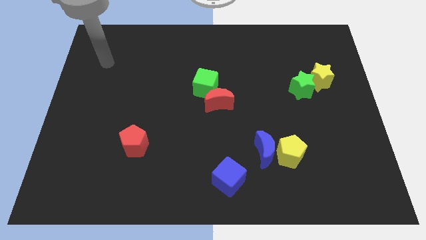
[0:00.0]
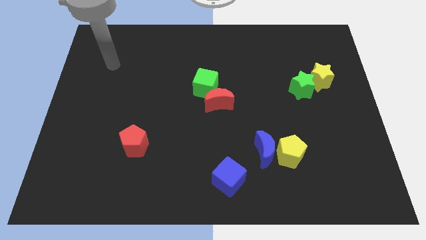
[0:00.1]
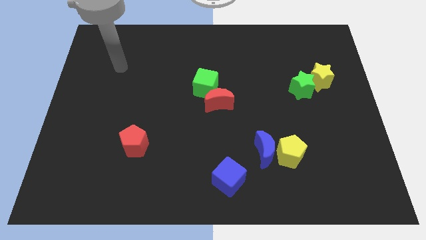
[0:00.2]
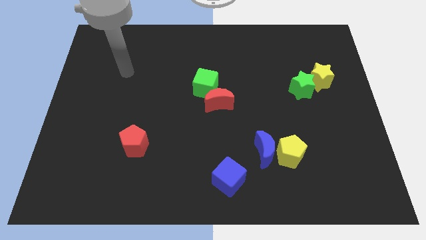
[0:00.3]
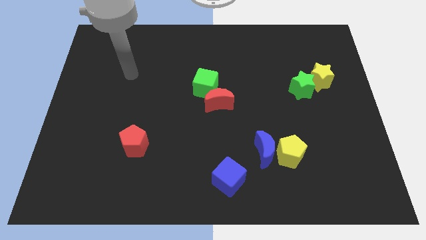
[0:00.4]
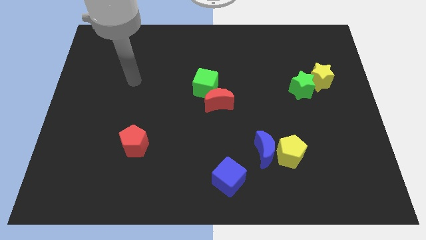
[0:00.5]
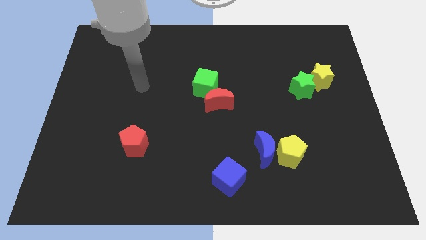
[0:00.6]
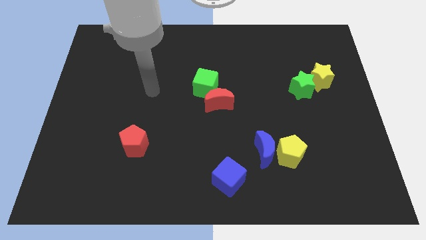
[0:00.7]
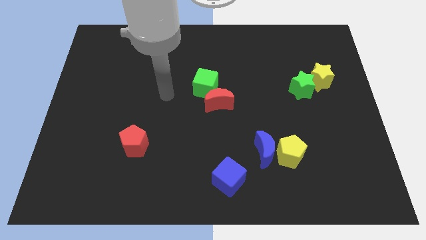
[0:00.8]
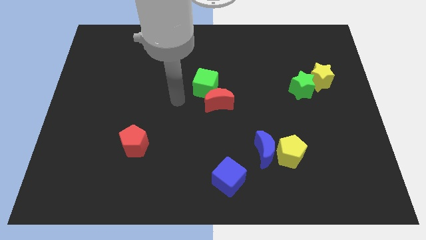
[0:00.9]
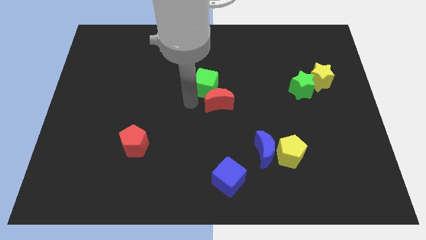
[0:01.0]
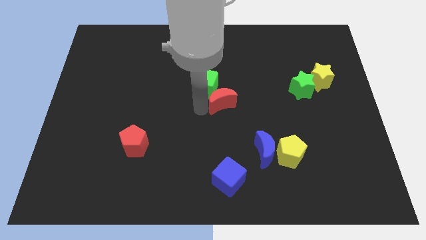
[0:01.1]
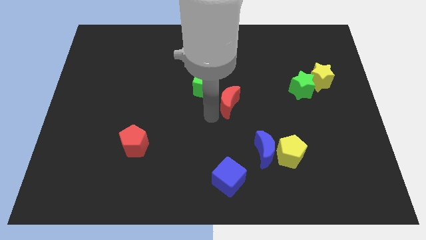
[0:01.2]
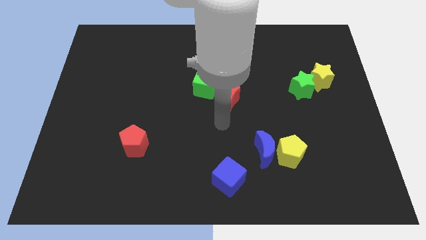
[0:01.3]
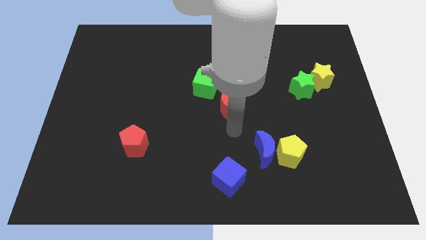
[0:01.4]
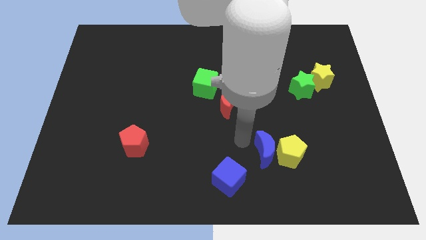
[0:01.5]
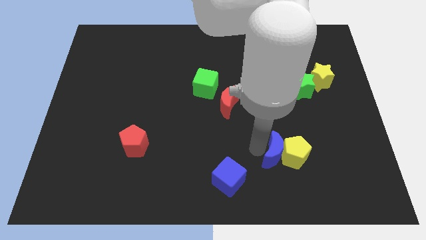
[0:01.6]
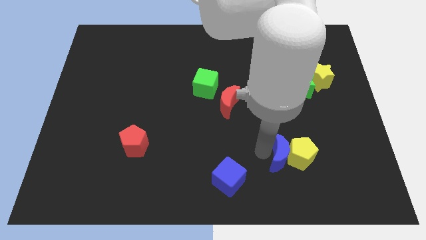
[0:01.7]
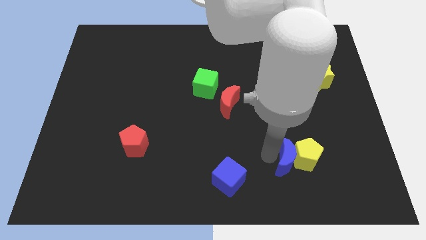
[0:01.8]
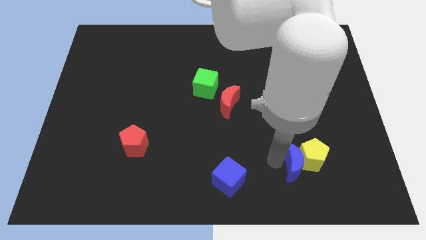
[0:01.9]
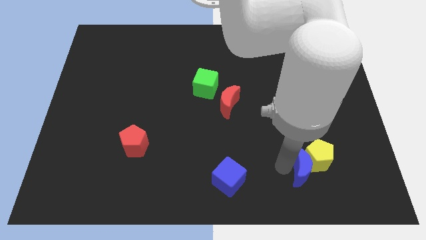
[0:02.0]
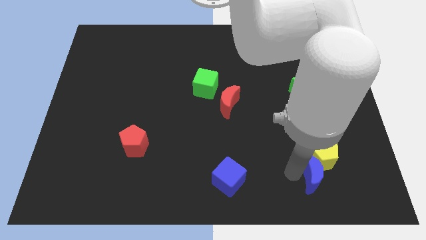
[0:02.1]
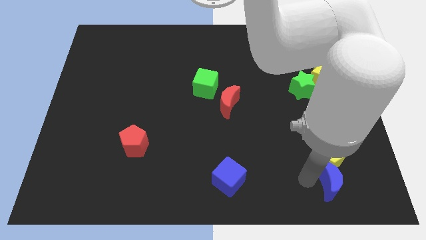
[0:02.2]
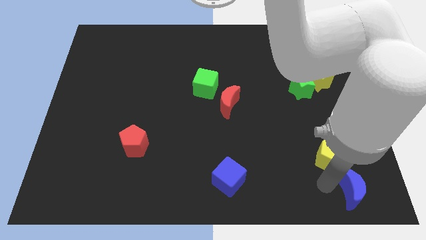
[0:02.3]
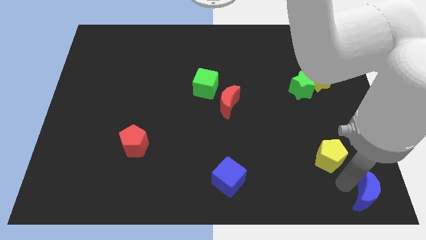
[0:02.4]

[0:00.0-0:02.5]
separate the yellow pentagon from the blue moon

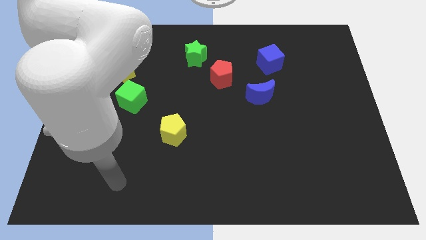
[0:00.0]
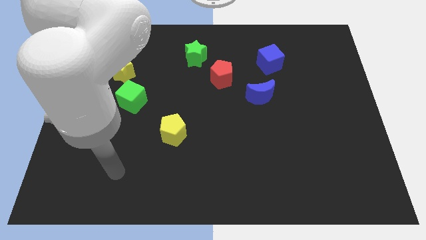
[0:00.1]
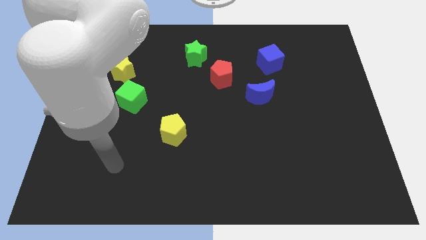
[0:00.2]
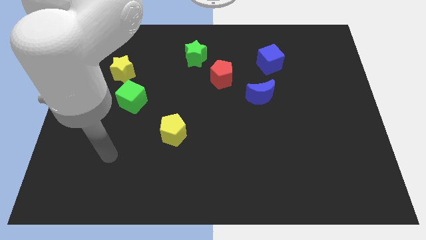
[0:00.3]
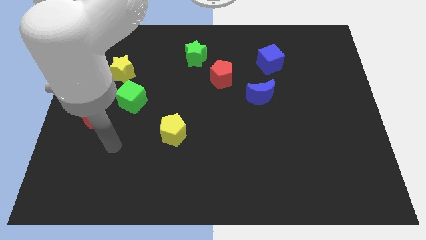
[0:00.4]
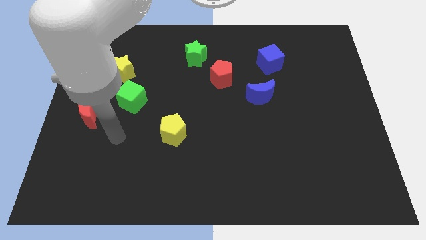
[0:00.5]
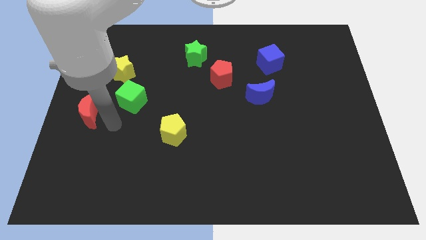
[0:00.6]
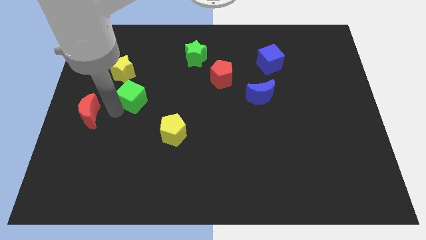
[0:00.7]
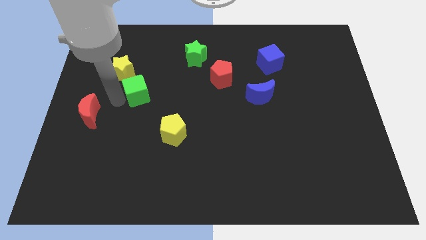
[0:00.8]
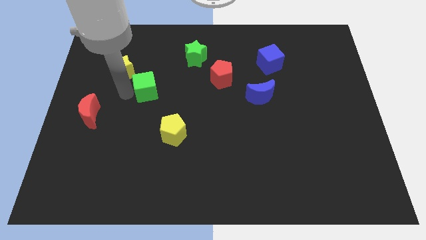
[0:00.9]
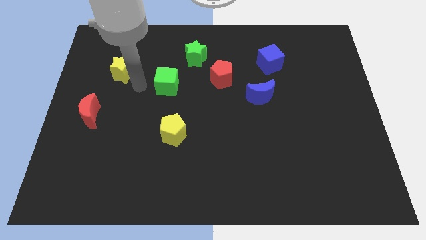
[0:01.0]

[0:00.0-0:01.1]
pull the yellow star apart from the green cube

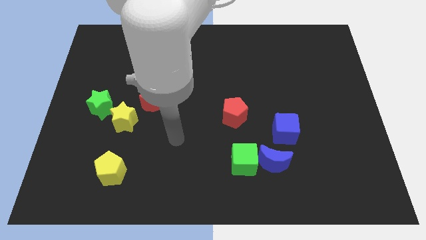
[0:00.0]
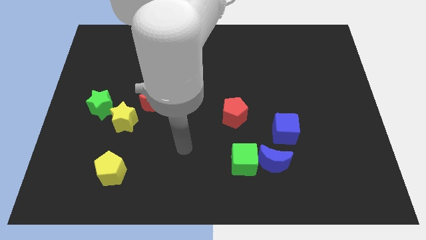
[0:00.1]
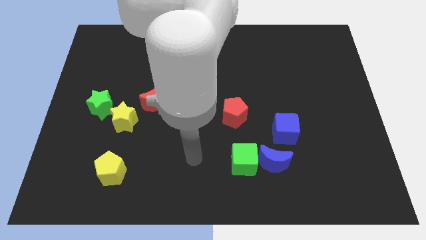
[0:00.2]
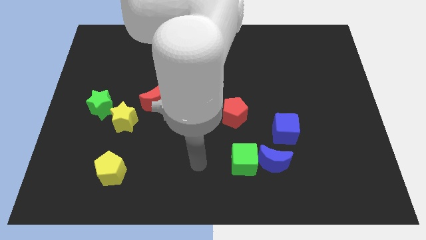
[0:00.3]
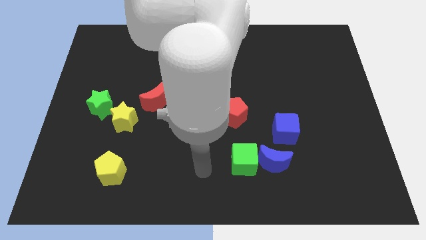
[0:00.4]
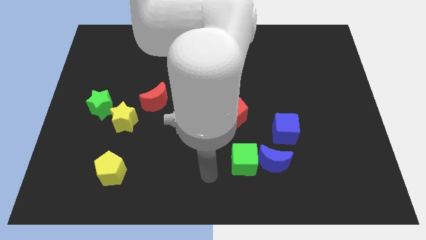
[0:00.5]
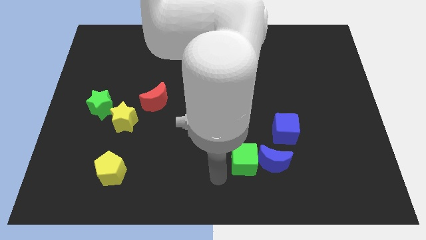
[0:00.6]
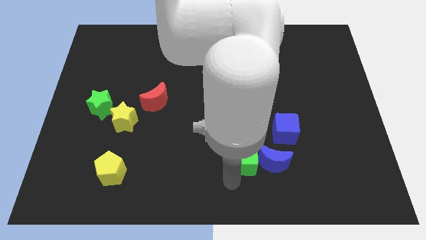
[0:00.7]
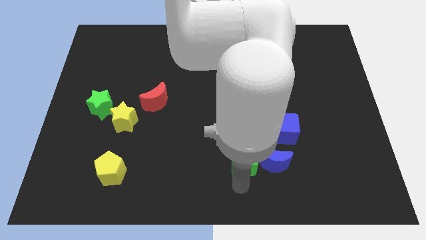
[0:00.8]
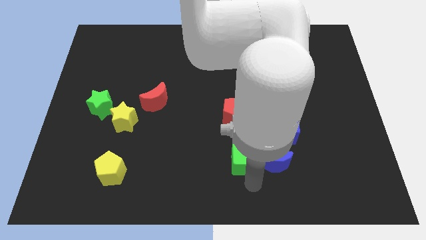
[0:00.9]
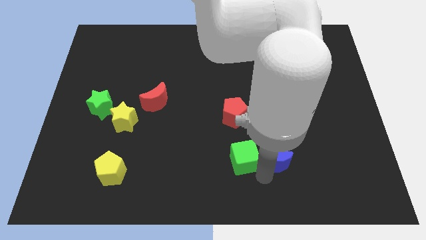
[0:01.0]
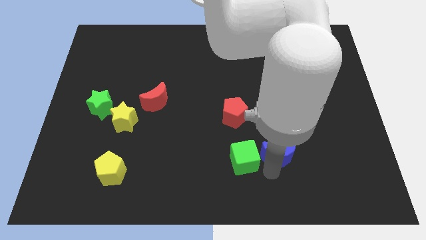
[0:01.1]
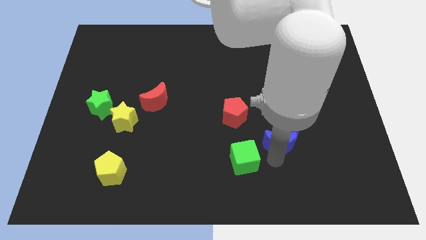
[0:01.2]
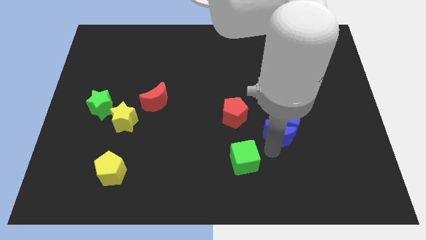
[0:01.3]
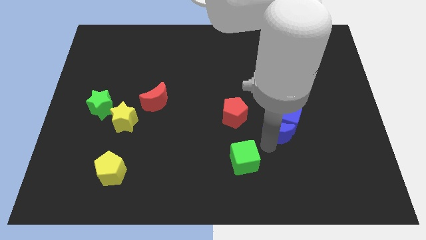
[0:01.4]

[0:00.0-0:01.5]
move the green cube away from the blue moon

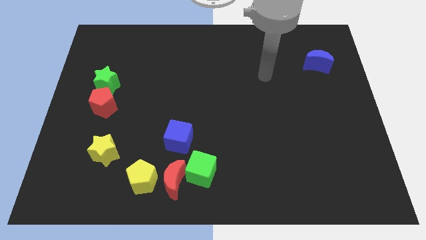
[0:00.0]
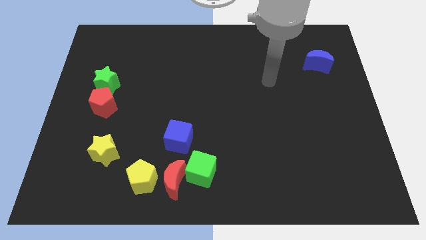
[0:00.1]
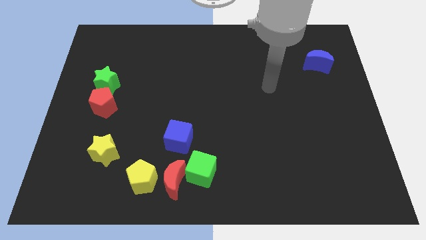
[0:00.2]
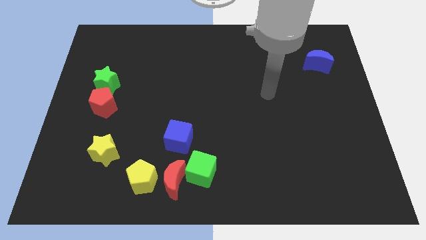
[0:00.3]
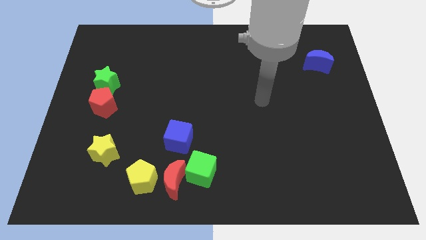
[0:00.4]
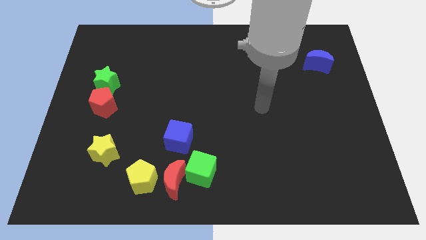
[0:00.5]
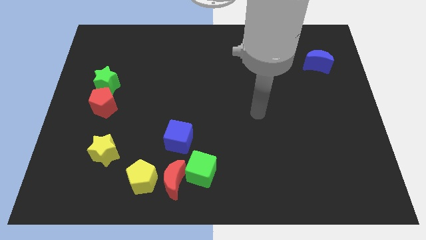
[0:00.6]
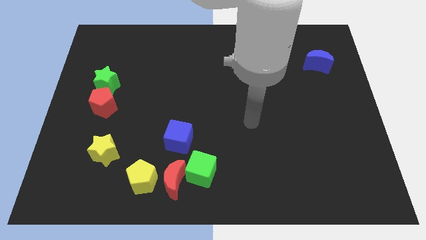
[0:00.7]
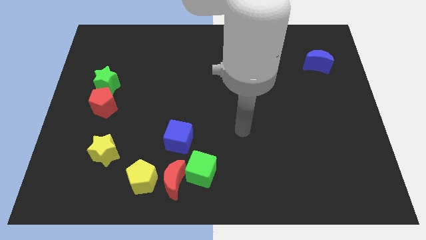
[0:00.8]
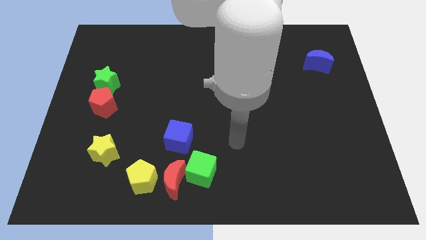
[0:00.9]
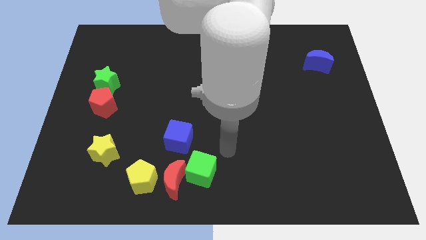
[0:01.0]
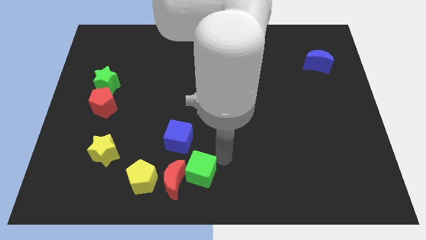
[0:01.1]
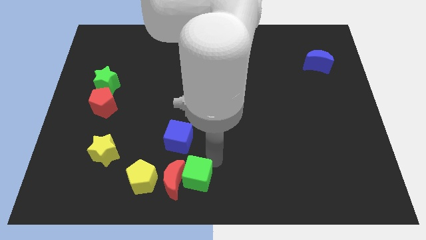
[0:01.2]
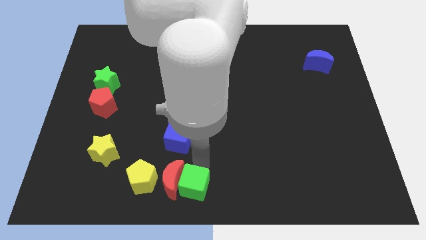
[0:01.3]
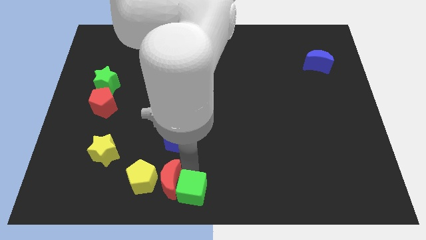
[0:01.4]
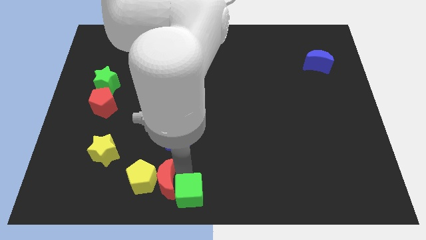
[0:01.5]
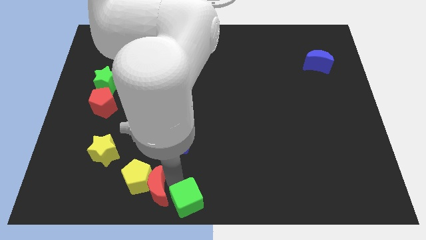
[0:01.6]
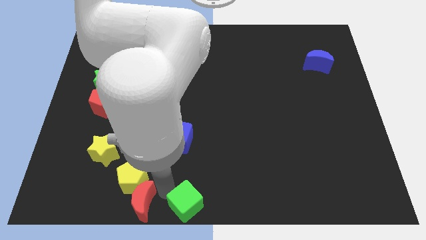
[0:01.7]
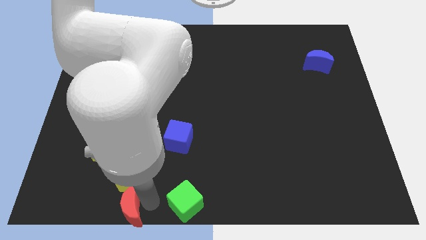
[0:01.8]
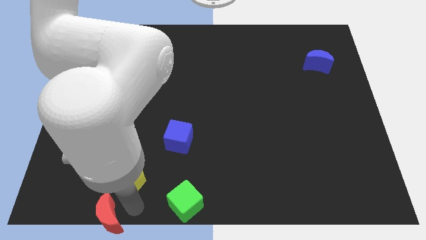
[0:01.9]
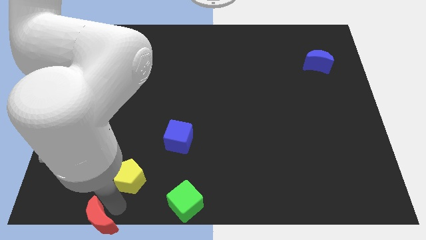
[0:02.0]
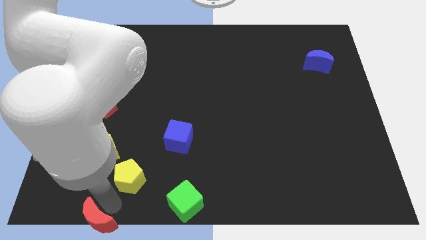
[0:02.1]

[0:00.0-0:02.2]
pull the yellow pentagon apart from the red moon

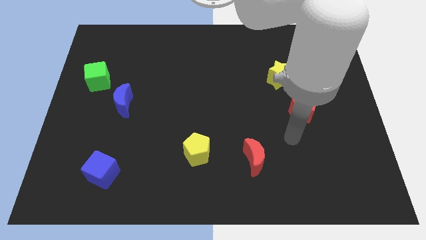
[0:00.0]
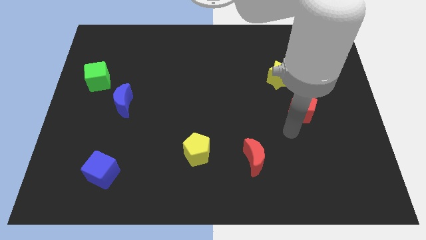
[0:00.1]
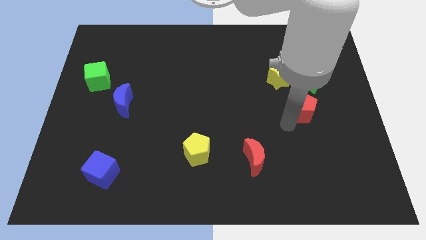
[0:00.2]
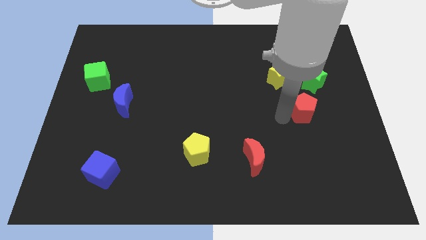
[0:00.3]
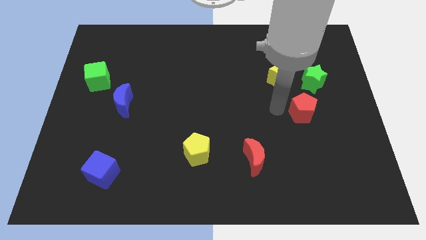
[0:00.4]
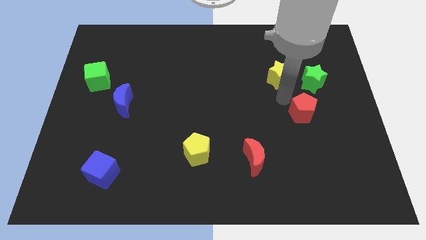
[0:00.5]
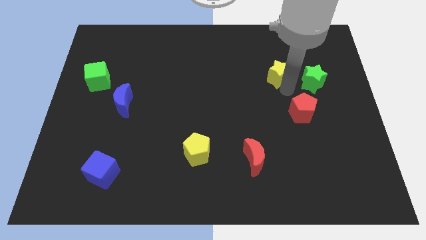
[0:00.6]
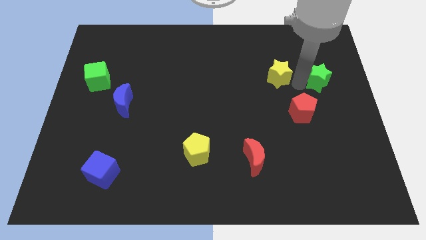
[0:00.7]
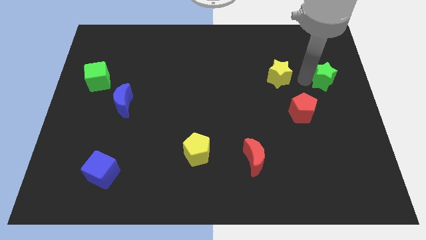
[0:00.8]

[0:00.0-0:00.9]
separate the yellow star from the green star

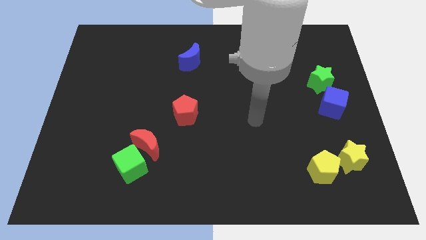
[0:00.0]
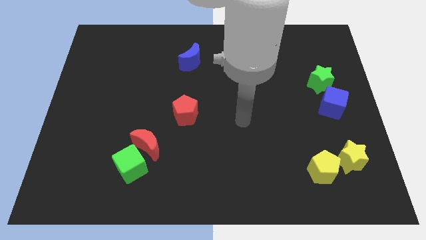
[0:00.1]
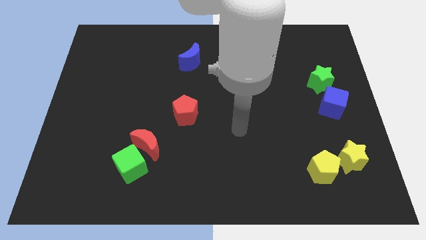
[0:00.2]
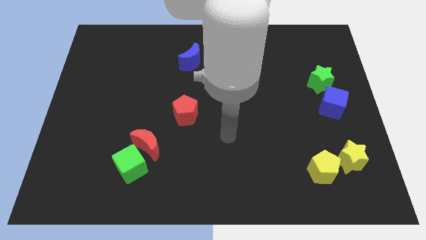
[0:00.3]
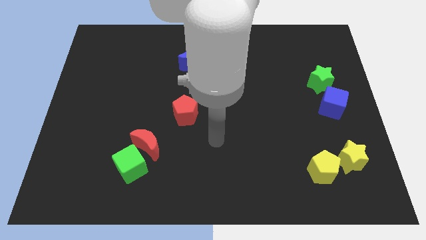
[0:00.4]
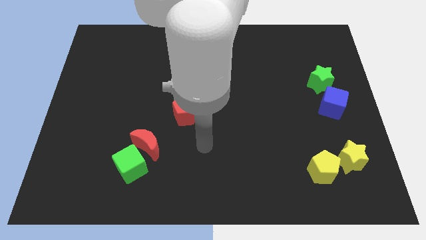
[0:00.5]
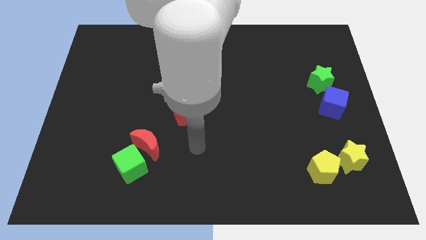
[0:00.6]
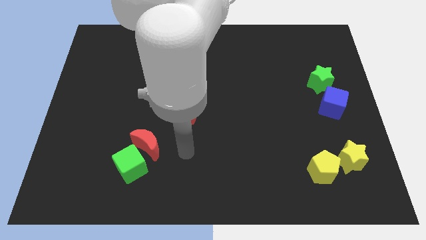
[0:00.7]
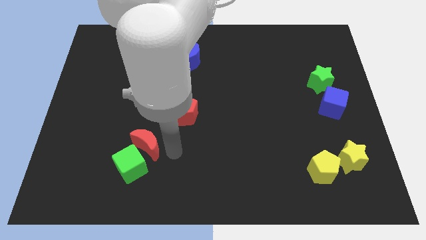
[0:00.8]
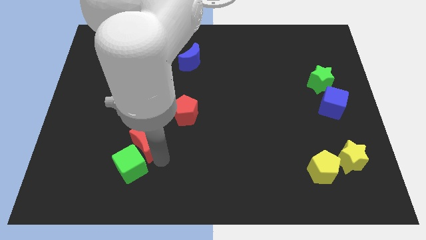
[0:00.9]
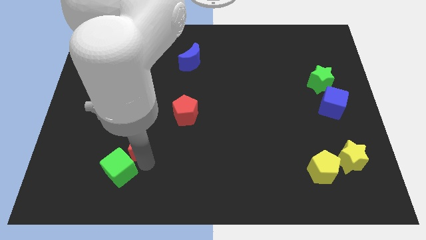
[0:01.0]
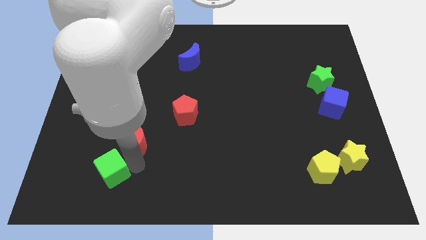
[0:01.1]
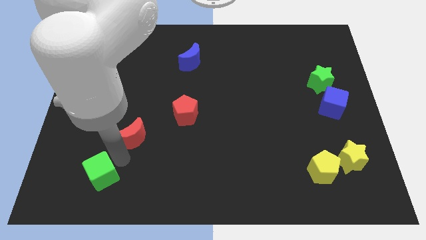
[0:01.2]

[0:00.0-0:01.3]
pull the red moon apart from the green cube
